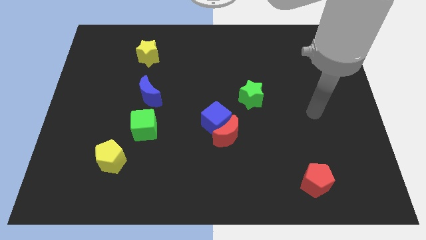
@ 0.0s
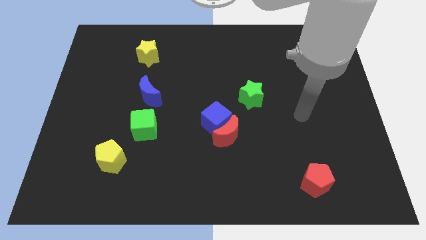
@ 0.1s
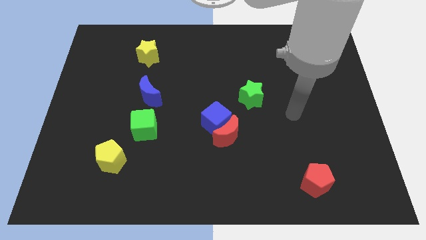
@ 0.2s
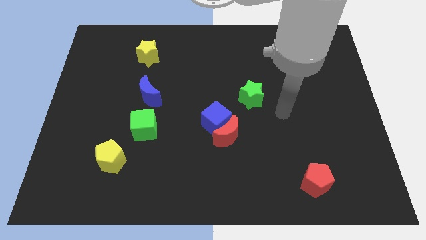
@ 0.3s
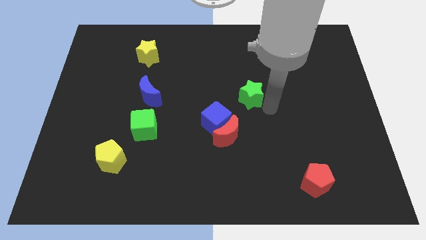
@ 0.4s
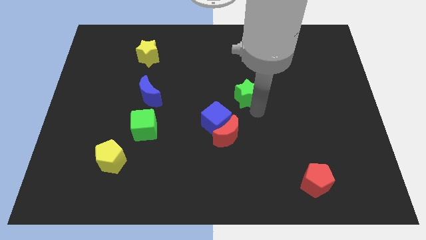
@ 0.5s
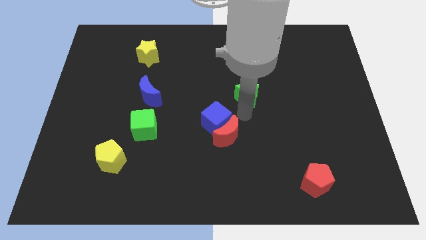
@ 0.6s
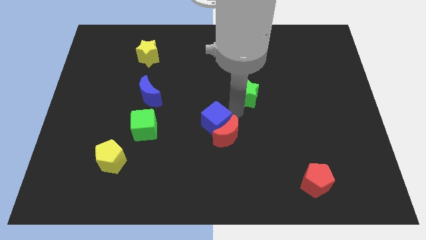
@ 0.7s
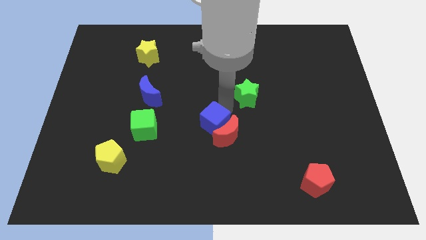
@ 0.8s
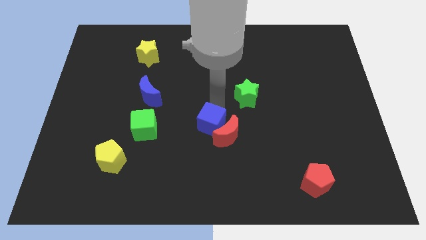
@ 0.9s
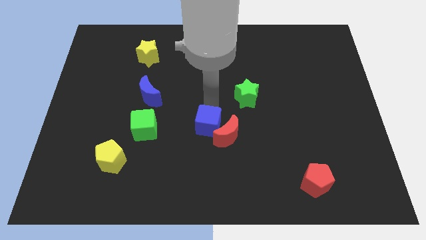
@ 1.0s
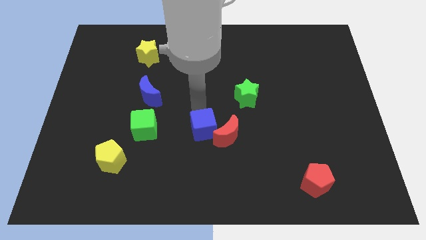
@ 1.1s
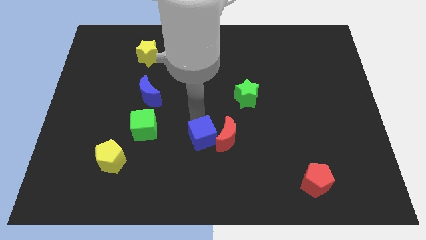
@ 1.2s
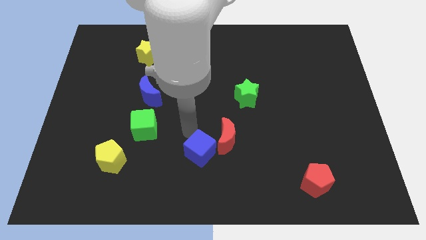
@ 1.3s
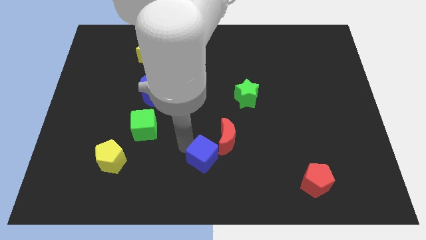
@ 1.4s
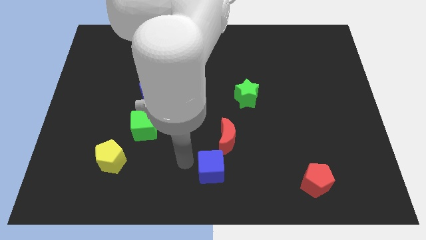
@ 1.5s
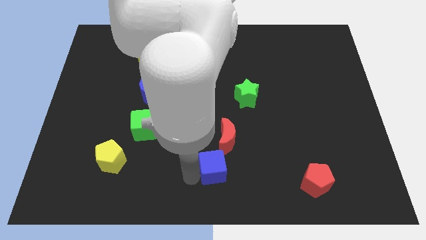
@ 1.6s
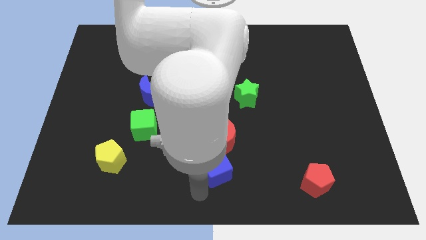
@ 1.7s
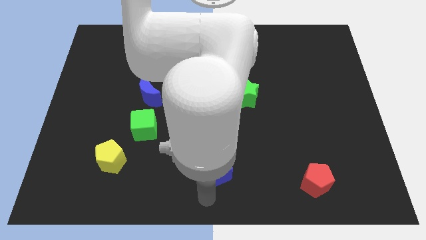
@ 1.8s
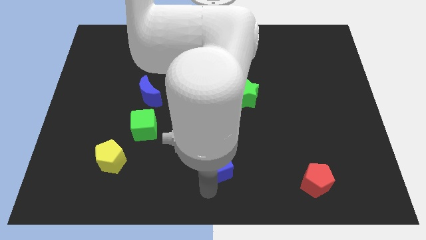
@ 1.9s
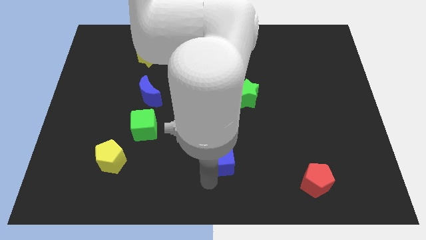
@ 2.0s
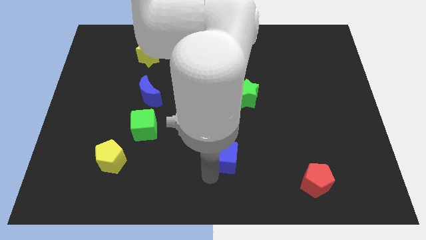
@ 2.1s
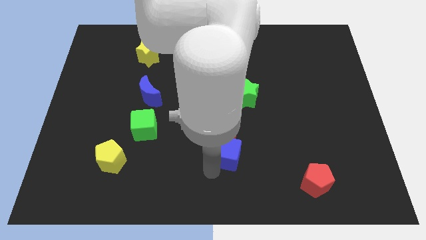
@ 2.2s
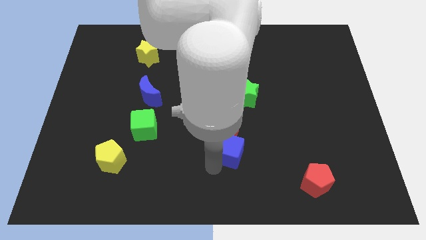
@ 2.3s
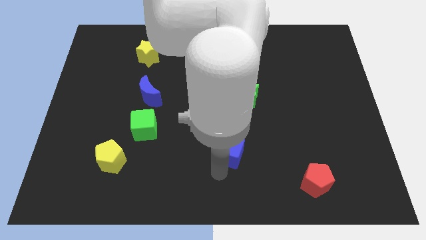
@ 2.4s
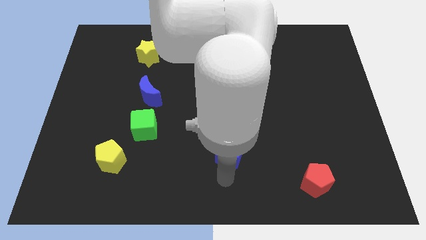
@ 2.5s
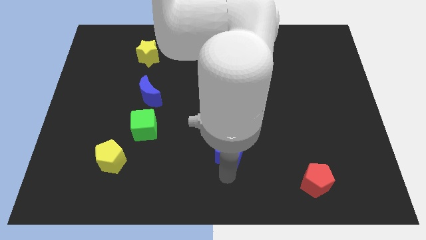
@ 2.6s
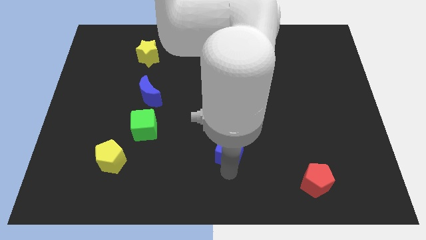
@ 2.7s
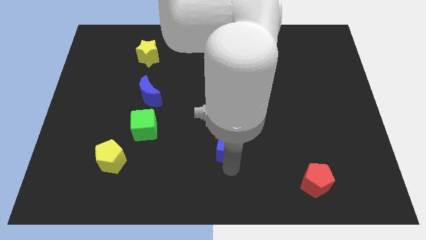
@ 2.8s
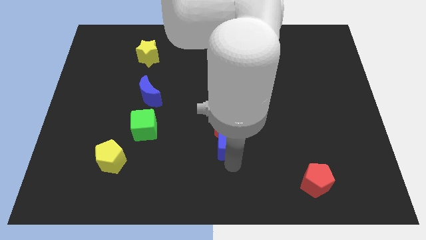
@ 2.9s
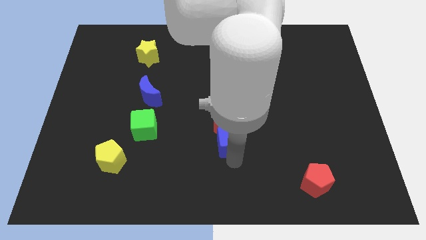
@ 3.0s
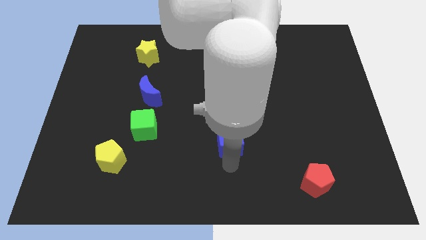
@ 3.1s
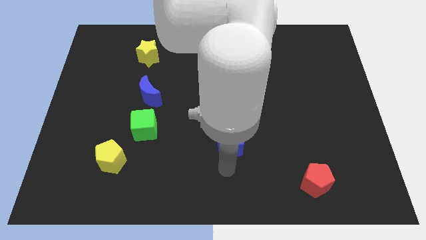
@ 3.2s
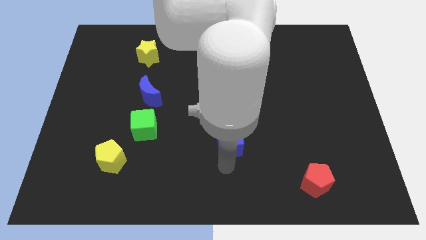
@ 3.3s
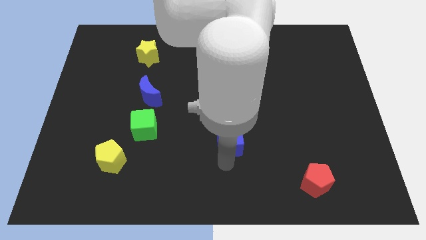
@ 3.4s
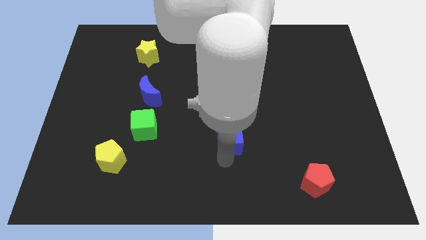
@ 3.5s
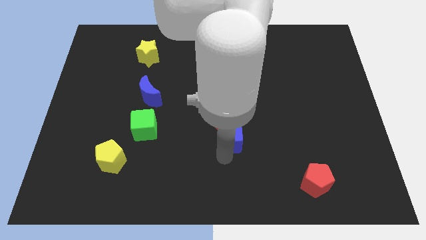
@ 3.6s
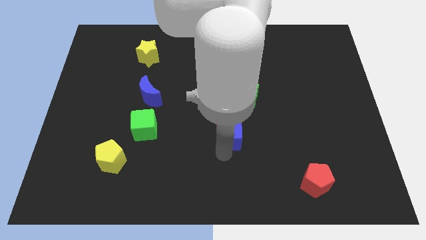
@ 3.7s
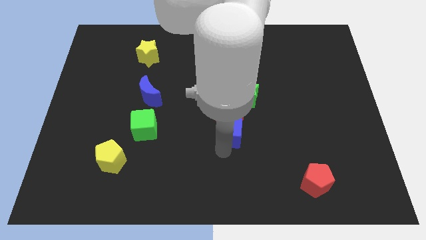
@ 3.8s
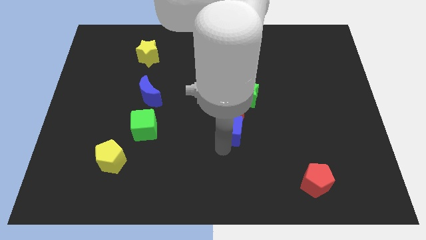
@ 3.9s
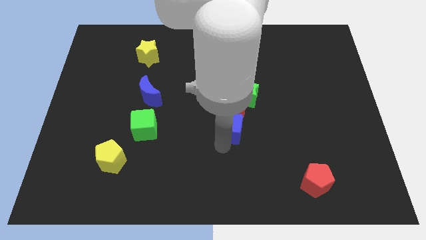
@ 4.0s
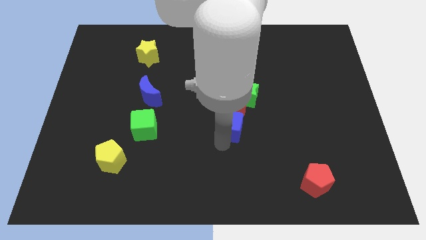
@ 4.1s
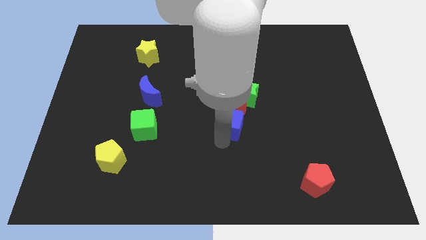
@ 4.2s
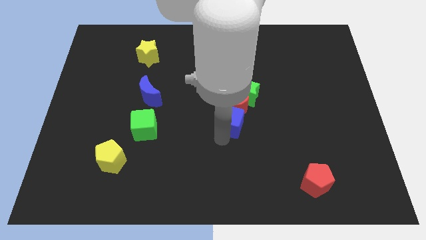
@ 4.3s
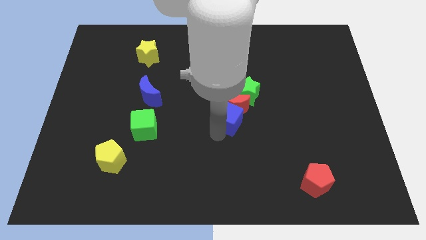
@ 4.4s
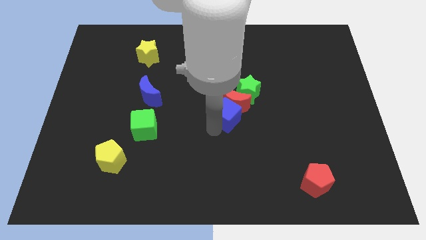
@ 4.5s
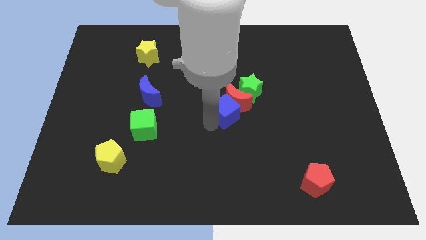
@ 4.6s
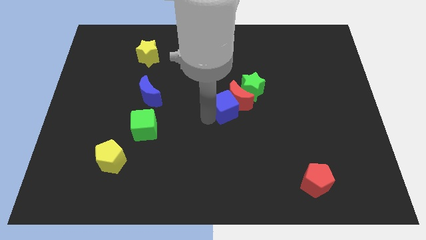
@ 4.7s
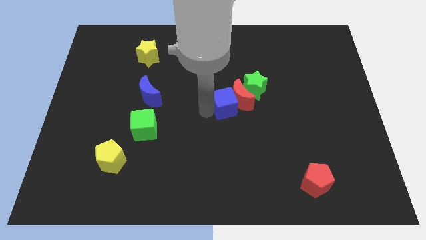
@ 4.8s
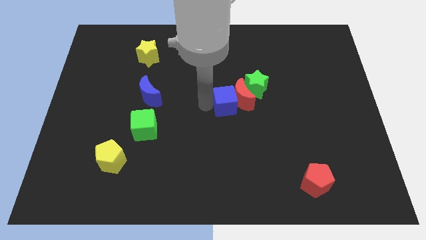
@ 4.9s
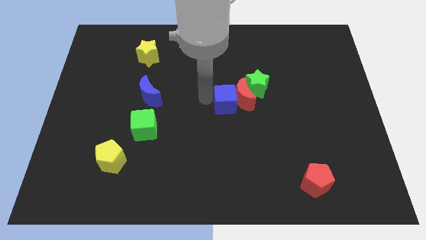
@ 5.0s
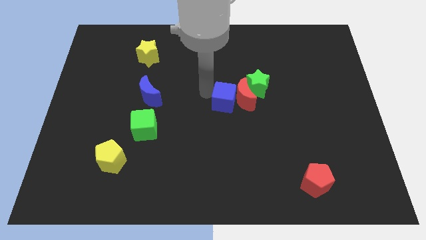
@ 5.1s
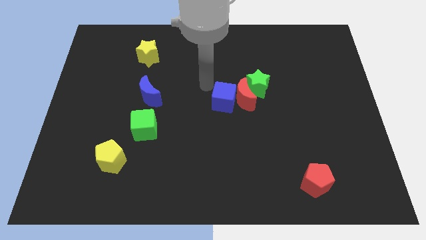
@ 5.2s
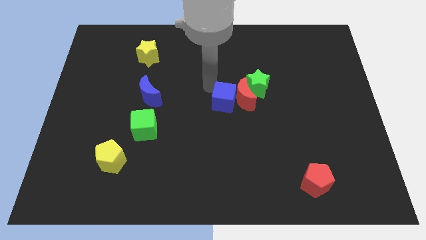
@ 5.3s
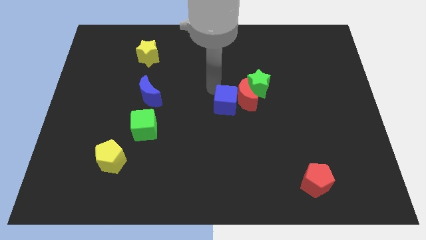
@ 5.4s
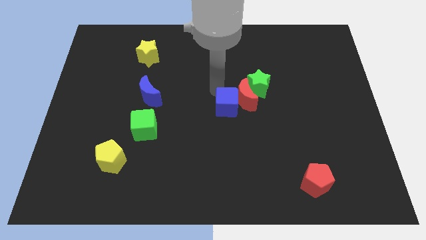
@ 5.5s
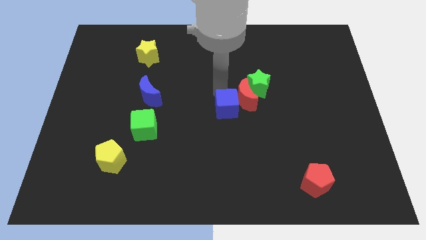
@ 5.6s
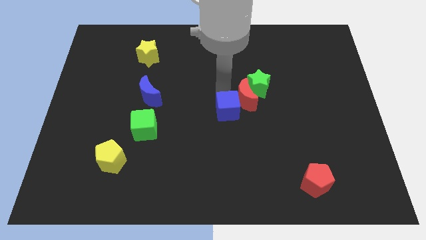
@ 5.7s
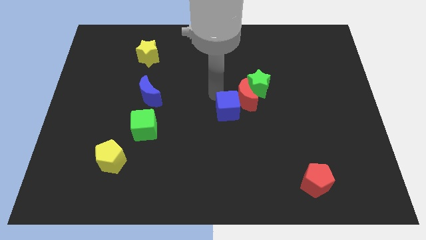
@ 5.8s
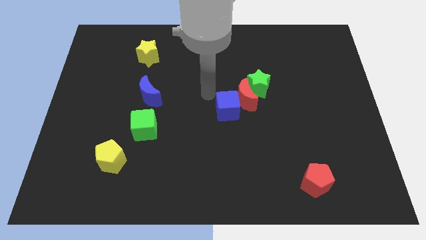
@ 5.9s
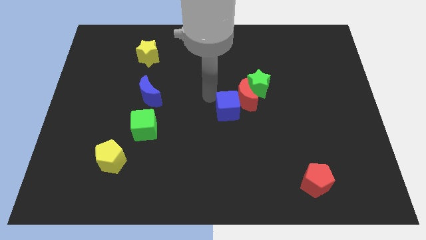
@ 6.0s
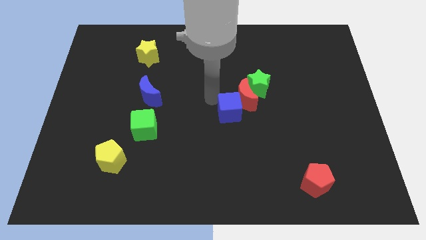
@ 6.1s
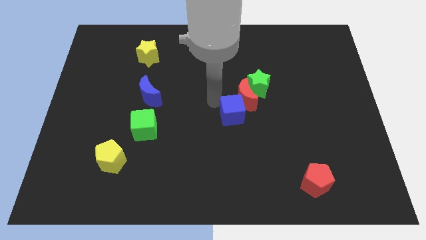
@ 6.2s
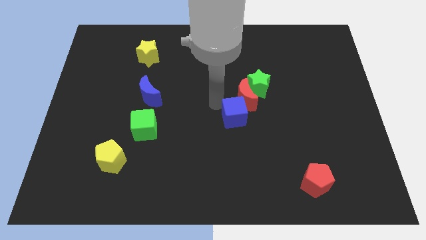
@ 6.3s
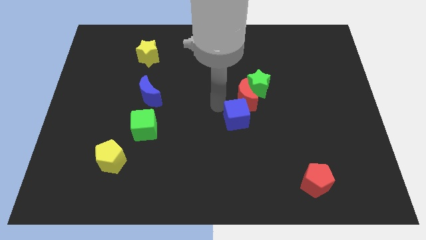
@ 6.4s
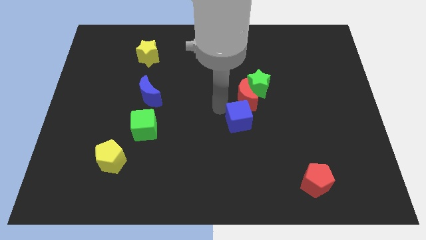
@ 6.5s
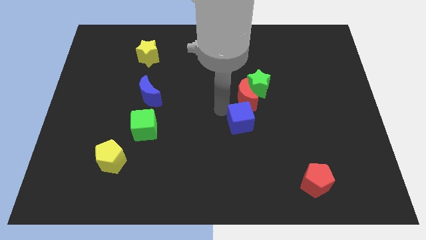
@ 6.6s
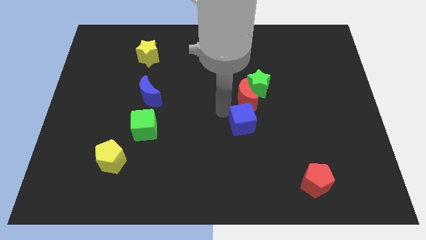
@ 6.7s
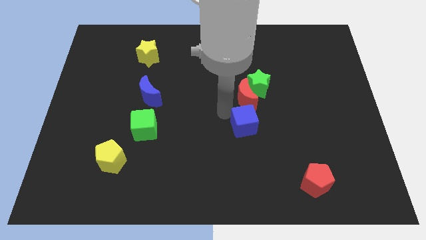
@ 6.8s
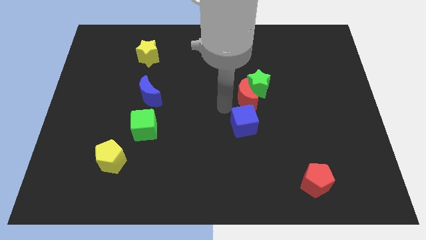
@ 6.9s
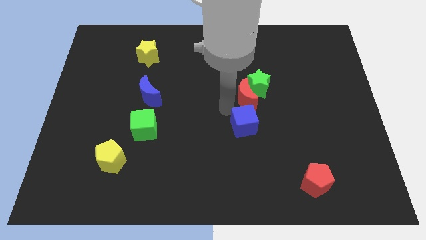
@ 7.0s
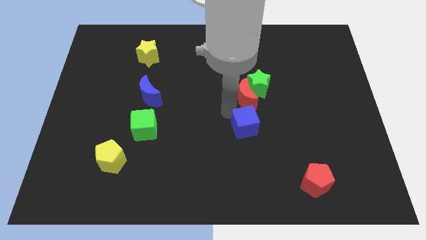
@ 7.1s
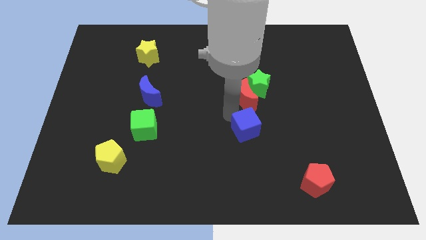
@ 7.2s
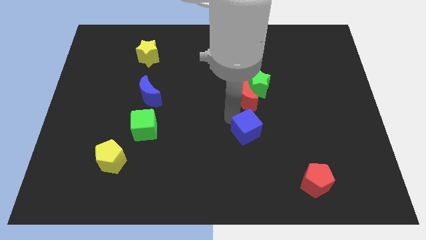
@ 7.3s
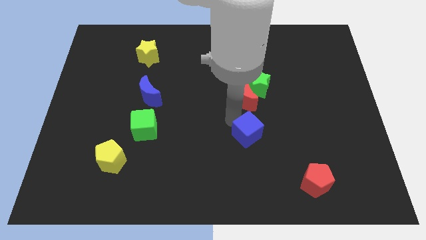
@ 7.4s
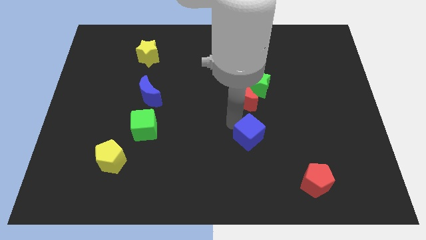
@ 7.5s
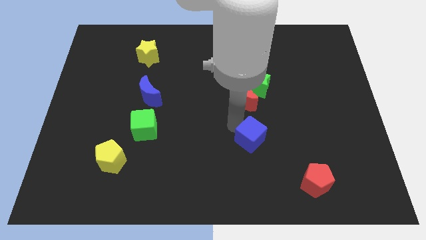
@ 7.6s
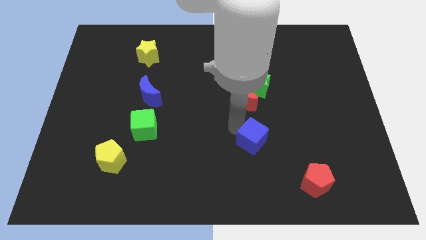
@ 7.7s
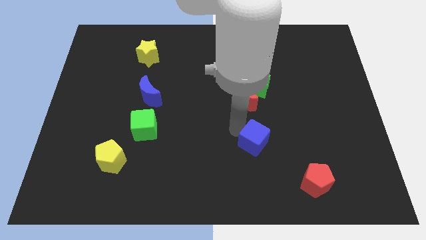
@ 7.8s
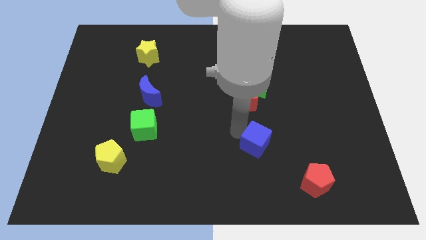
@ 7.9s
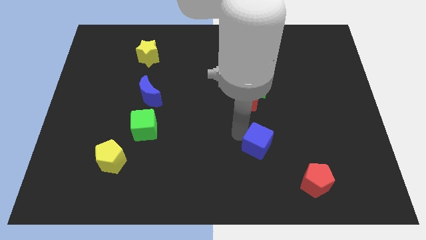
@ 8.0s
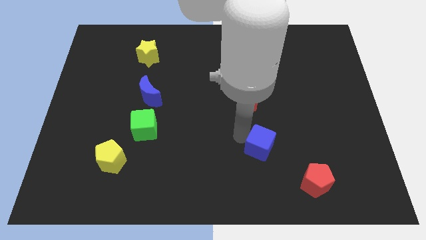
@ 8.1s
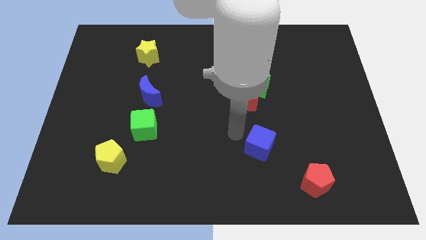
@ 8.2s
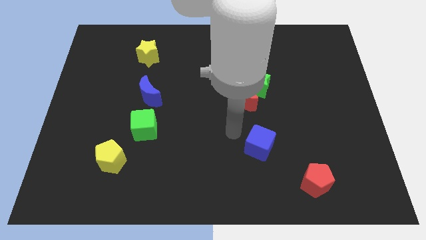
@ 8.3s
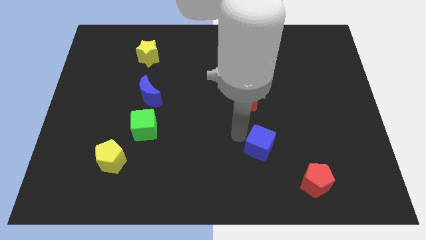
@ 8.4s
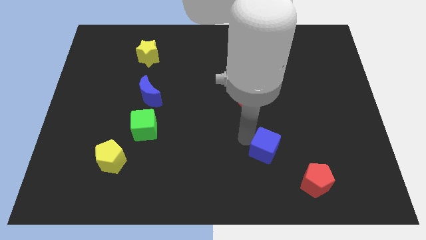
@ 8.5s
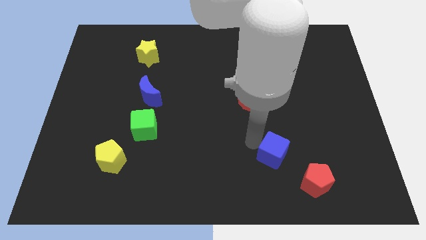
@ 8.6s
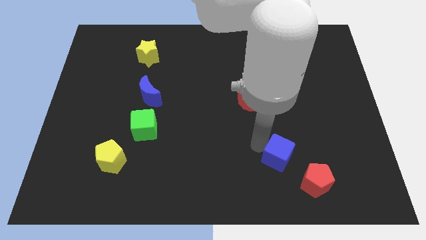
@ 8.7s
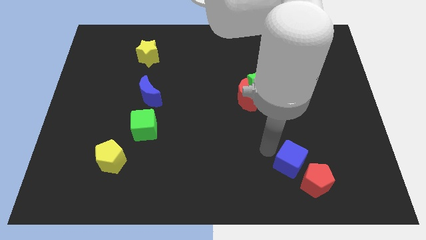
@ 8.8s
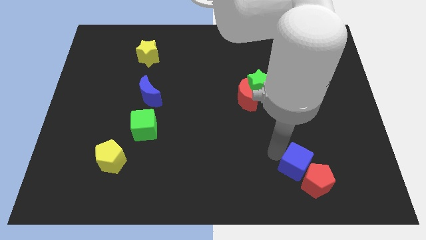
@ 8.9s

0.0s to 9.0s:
slide the blue cube to the red pentagon
